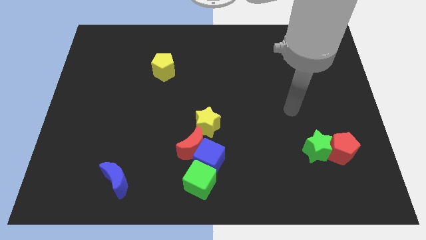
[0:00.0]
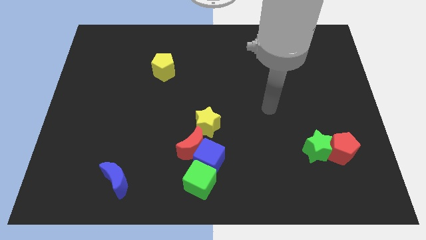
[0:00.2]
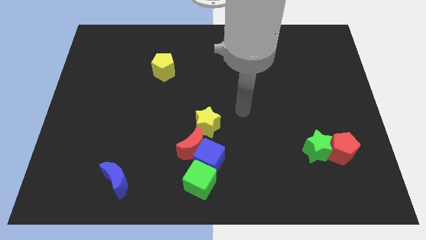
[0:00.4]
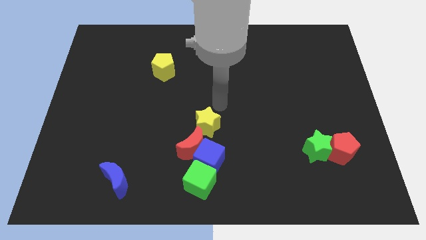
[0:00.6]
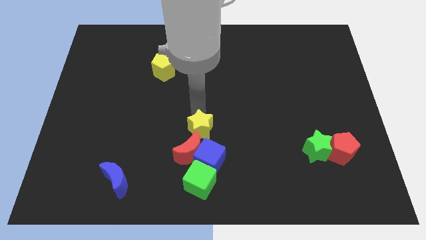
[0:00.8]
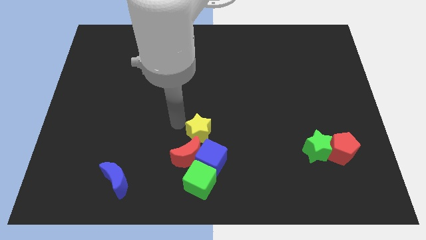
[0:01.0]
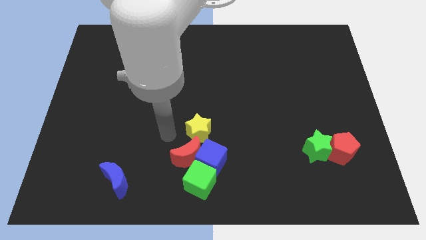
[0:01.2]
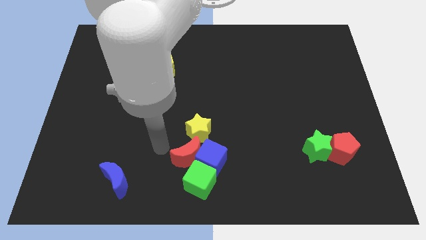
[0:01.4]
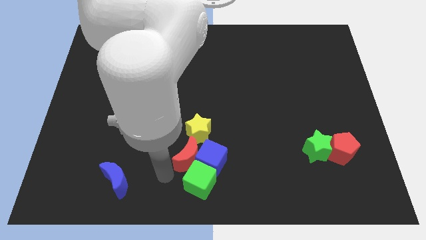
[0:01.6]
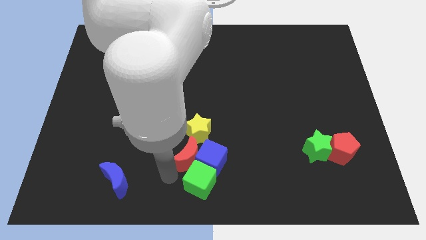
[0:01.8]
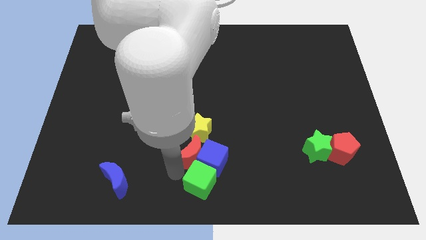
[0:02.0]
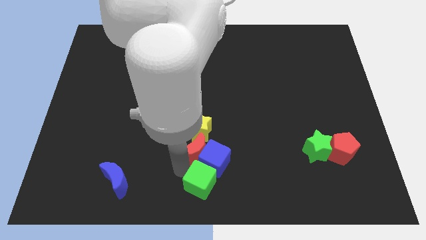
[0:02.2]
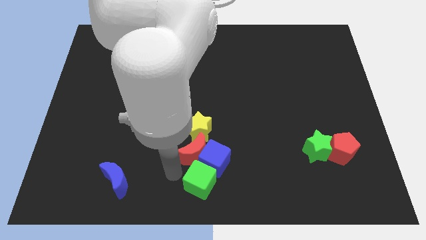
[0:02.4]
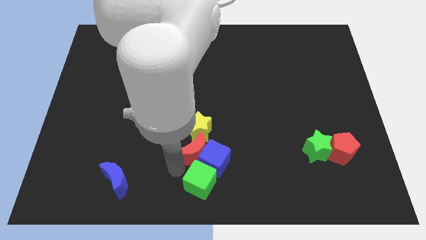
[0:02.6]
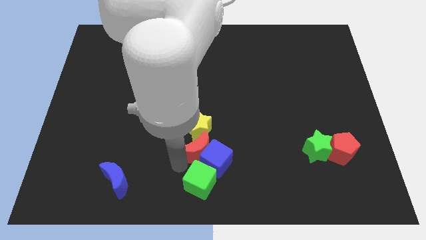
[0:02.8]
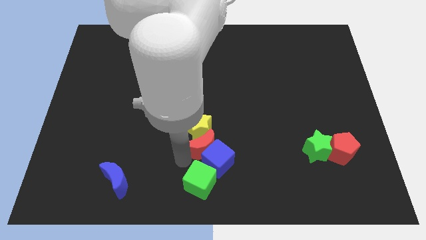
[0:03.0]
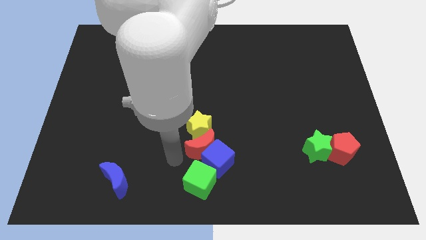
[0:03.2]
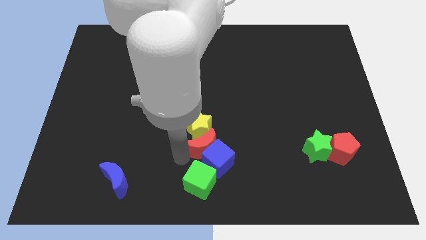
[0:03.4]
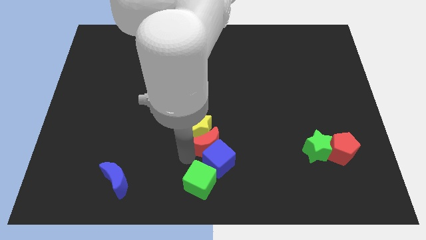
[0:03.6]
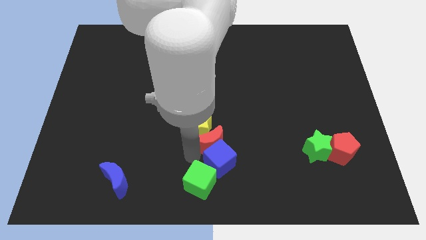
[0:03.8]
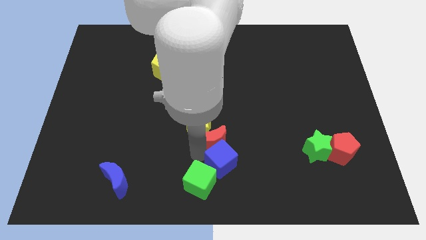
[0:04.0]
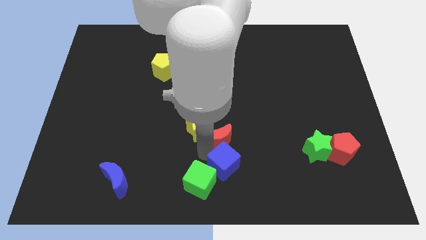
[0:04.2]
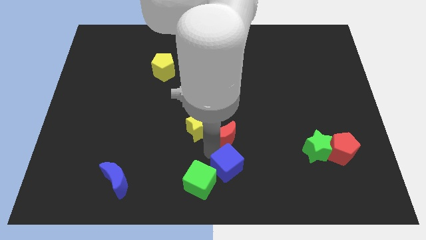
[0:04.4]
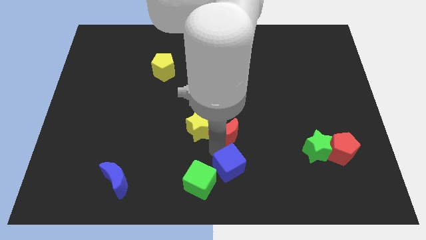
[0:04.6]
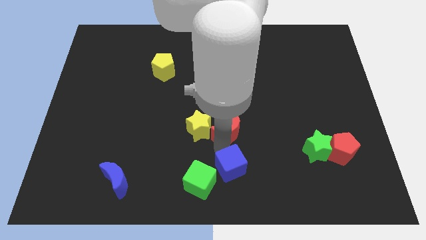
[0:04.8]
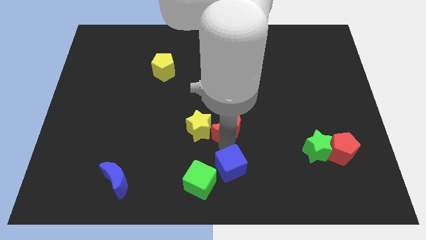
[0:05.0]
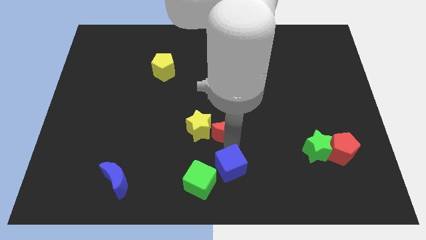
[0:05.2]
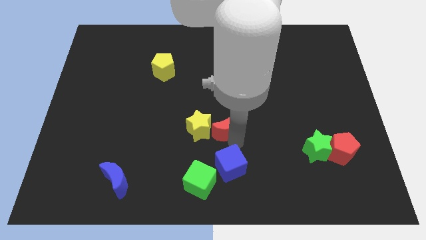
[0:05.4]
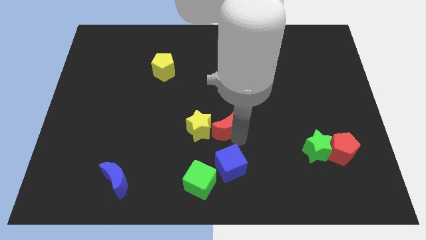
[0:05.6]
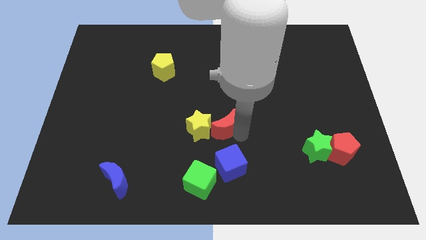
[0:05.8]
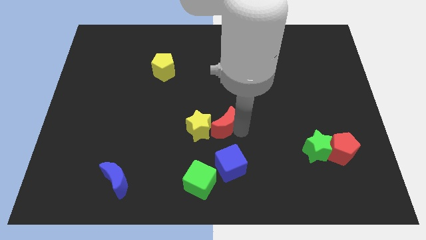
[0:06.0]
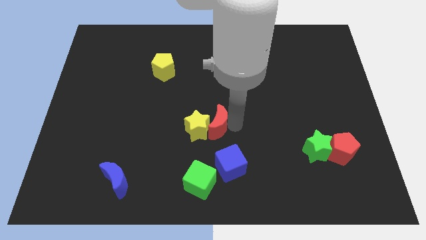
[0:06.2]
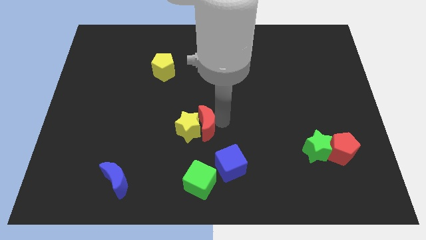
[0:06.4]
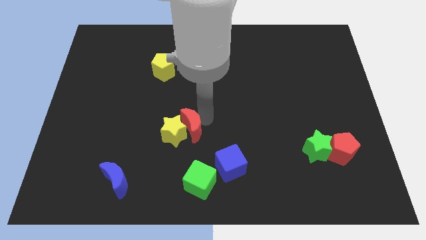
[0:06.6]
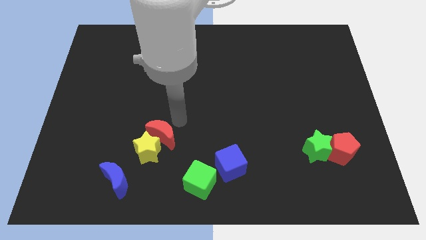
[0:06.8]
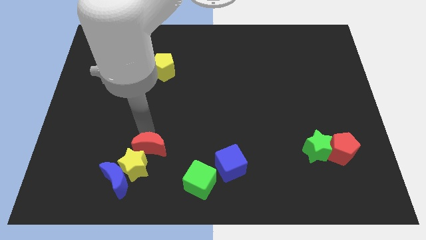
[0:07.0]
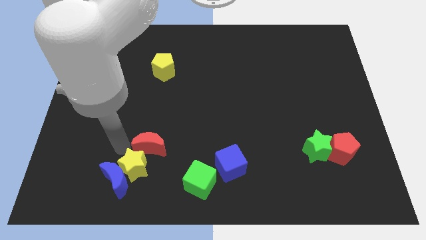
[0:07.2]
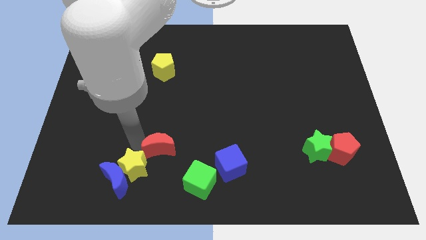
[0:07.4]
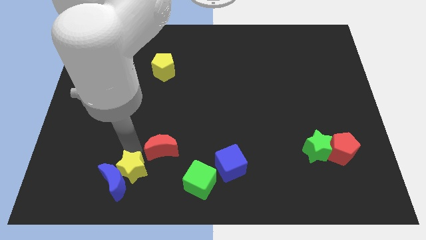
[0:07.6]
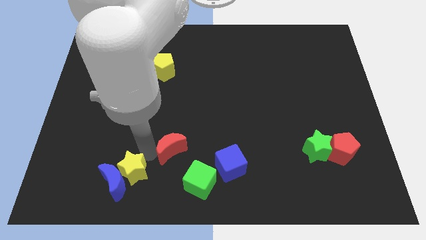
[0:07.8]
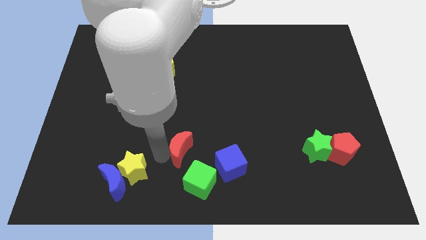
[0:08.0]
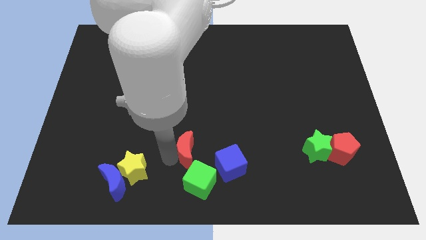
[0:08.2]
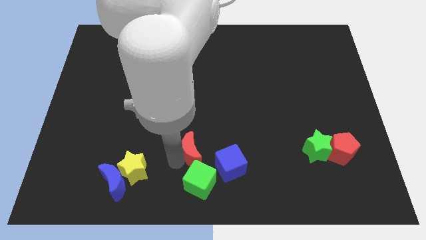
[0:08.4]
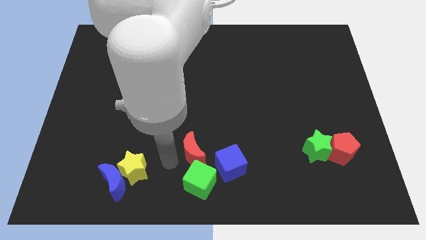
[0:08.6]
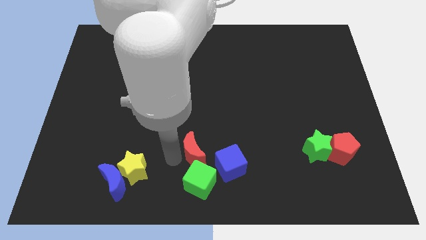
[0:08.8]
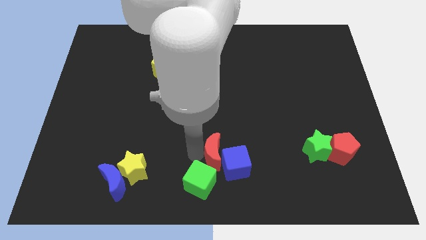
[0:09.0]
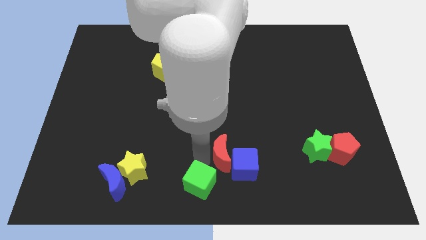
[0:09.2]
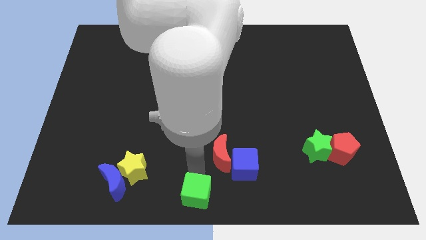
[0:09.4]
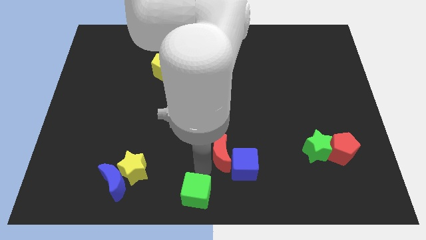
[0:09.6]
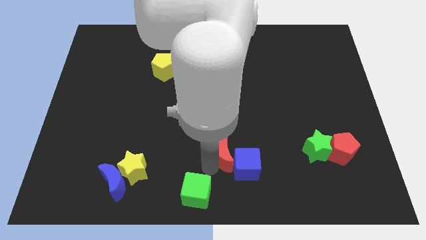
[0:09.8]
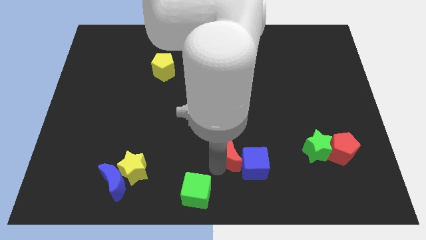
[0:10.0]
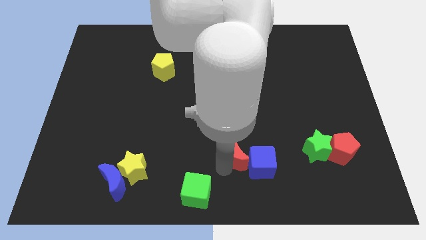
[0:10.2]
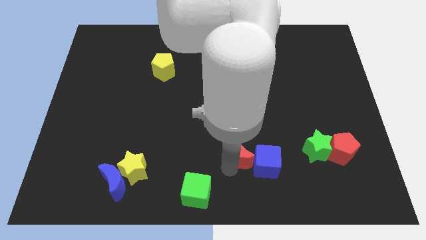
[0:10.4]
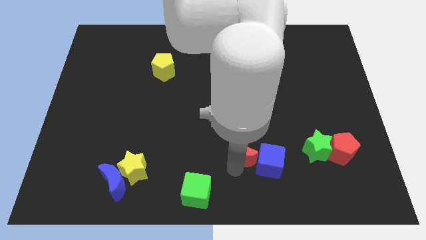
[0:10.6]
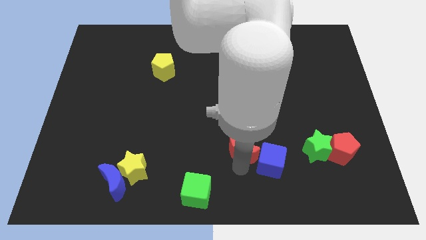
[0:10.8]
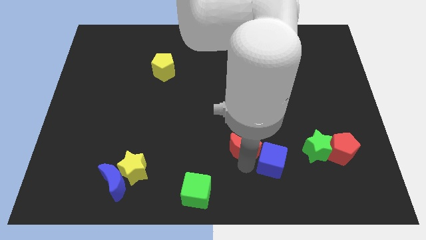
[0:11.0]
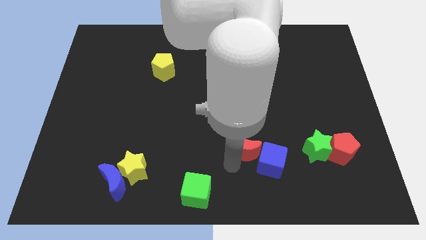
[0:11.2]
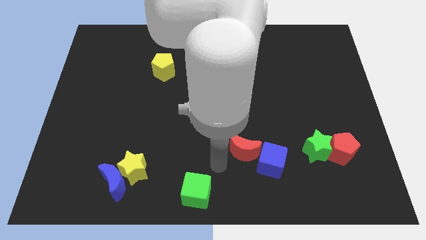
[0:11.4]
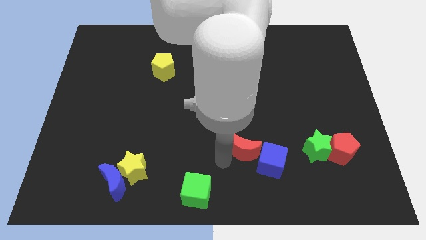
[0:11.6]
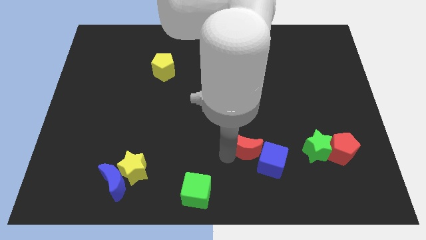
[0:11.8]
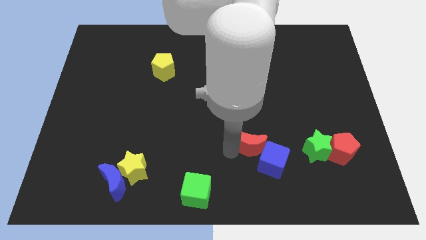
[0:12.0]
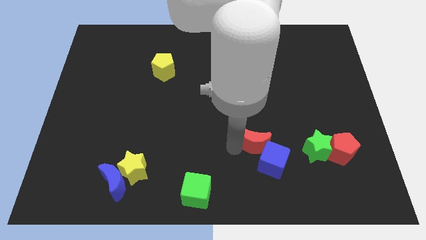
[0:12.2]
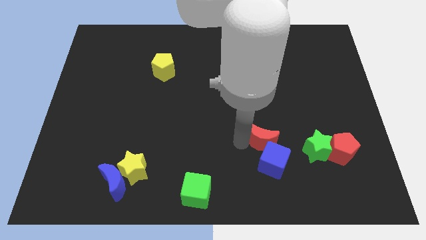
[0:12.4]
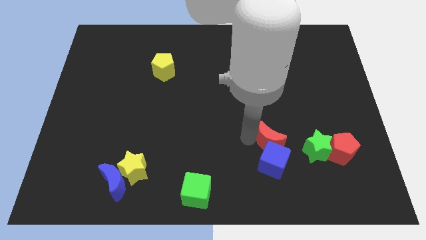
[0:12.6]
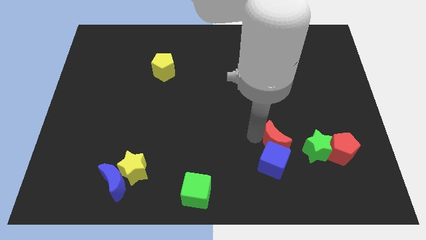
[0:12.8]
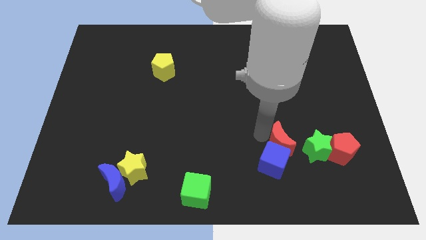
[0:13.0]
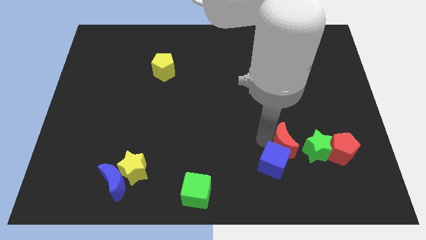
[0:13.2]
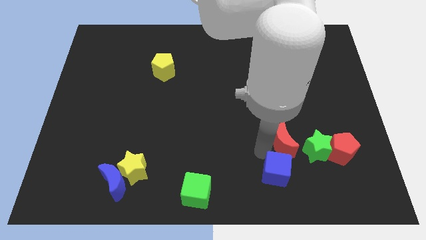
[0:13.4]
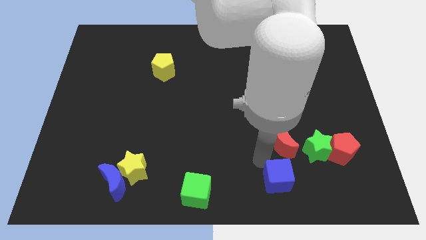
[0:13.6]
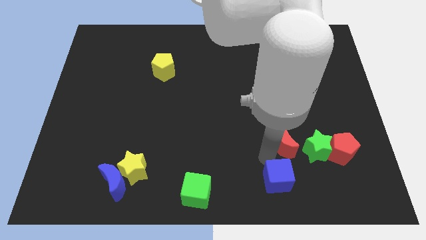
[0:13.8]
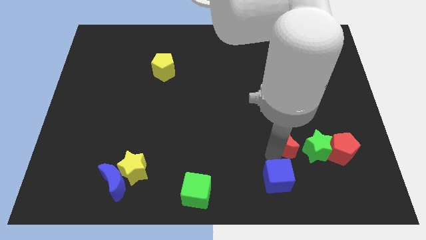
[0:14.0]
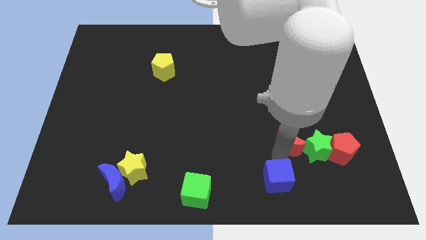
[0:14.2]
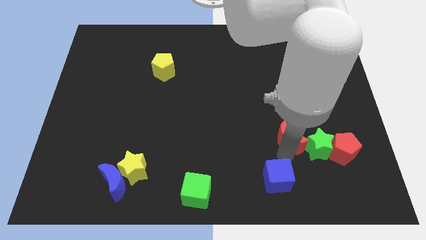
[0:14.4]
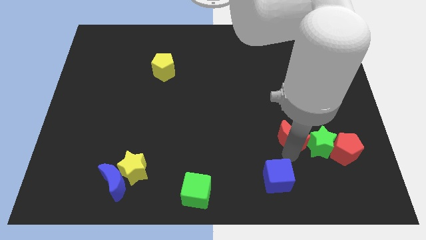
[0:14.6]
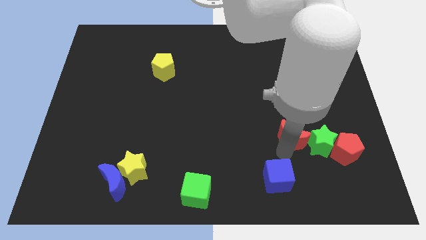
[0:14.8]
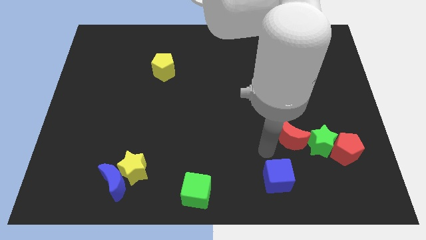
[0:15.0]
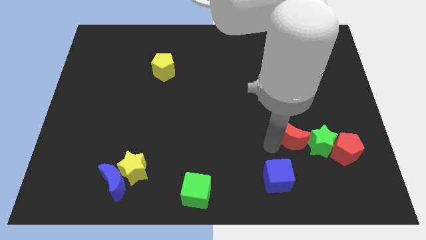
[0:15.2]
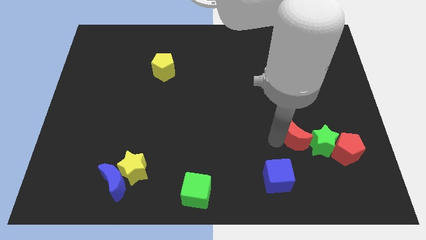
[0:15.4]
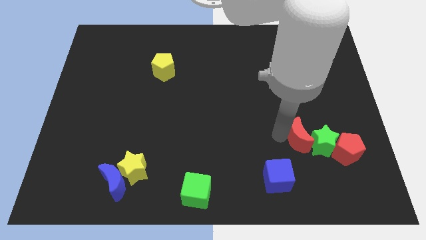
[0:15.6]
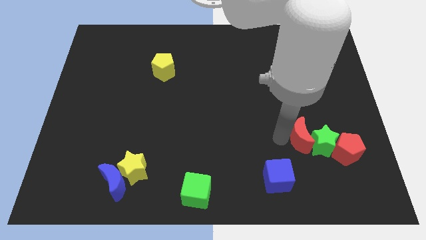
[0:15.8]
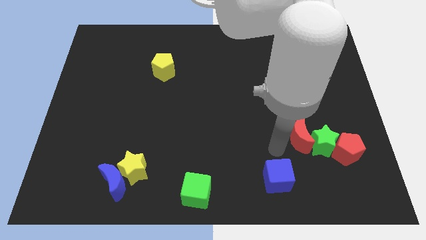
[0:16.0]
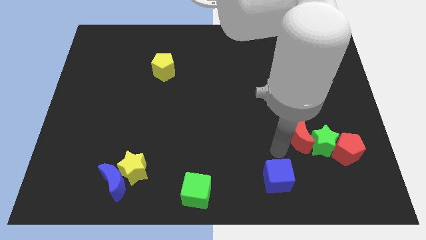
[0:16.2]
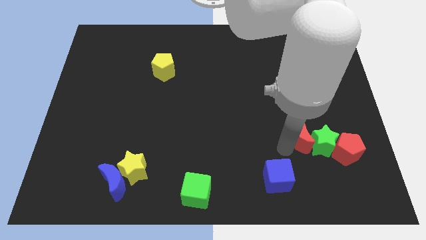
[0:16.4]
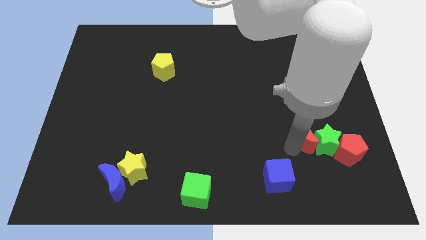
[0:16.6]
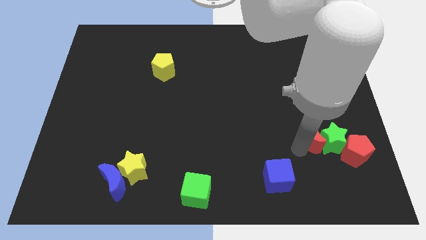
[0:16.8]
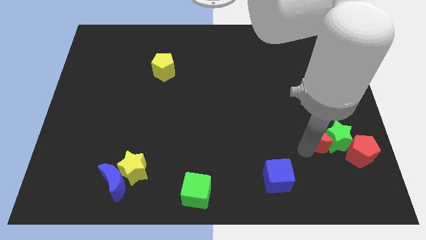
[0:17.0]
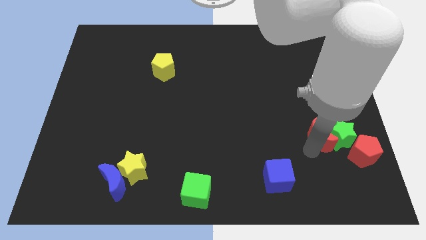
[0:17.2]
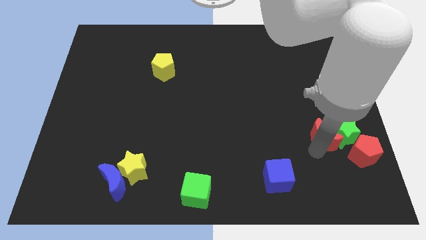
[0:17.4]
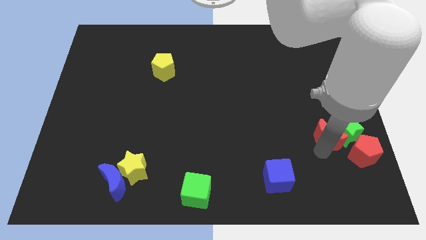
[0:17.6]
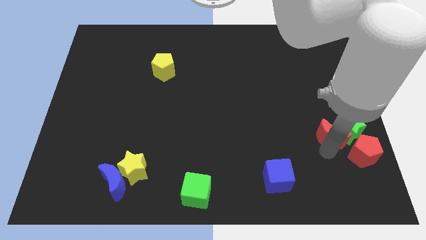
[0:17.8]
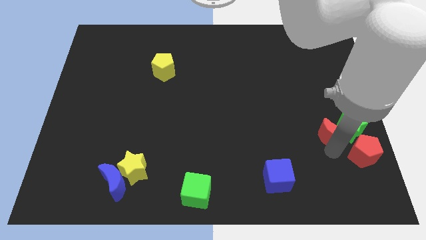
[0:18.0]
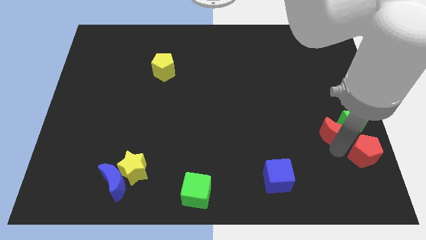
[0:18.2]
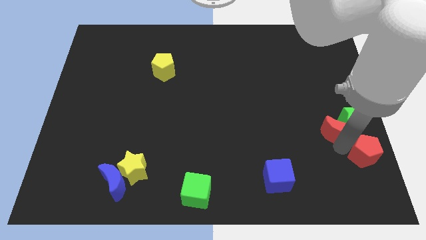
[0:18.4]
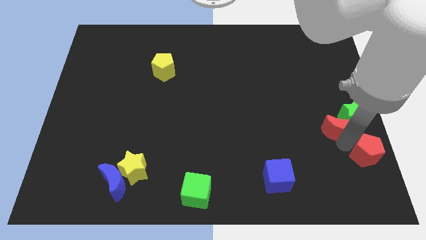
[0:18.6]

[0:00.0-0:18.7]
move the red moon to the center right
